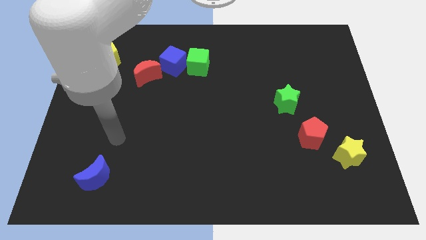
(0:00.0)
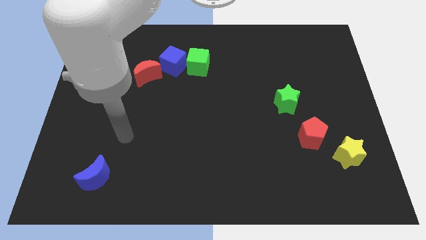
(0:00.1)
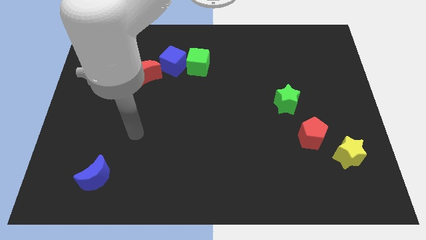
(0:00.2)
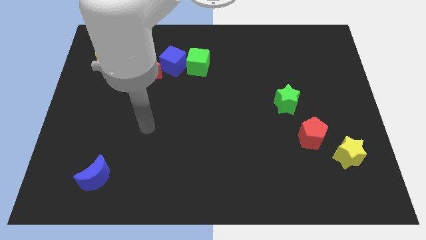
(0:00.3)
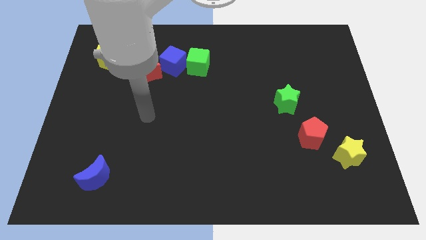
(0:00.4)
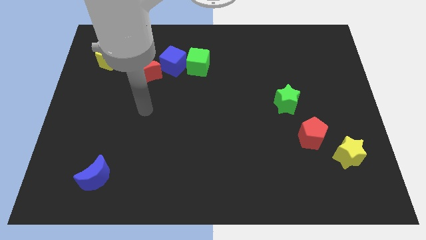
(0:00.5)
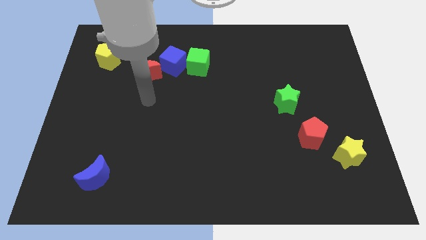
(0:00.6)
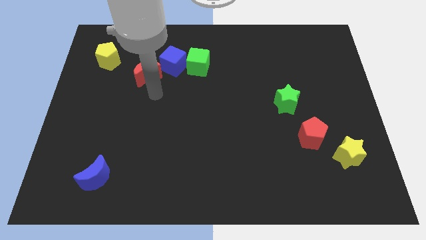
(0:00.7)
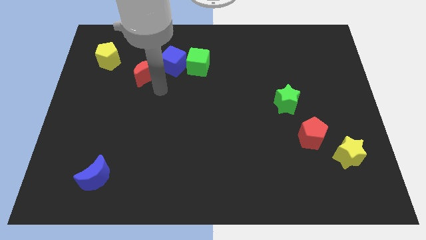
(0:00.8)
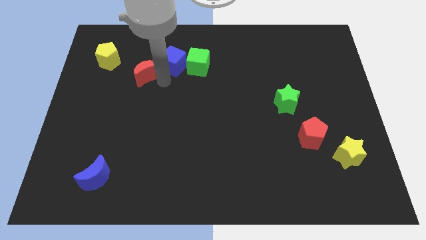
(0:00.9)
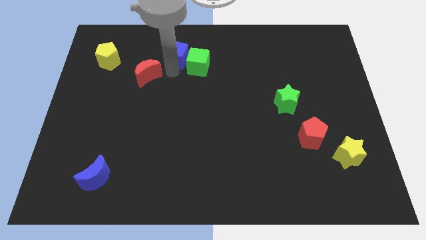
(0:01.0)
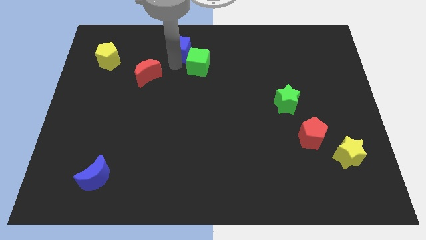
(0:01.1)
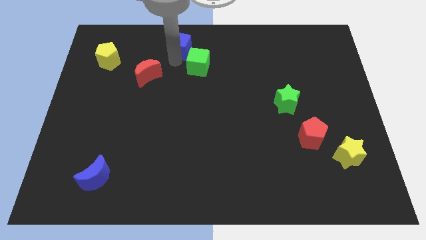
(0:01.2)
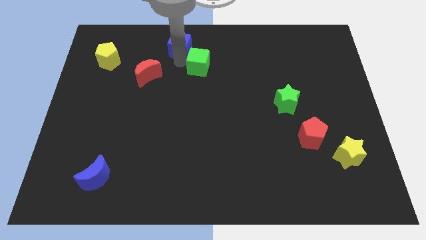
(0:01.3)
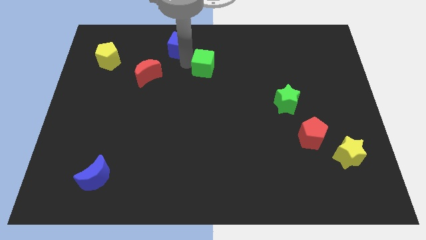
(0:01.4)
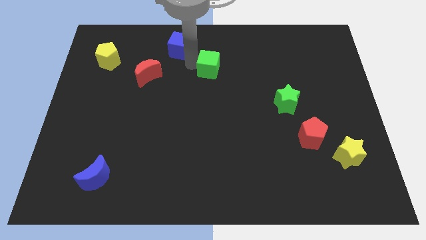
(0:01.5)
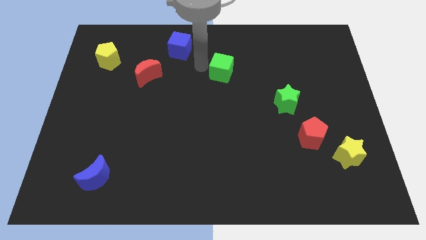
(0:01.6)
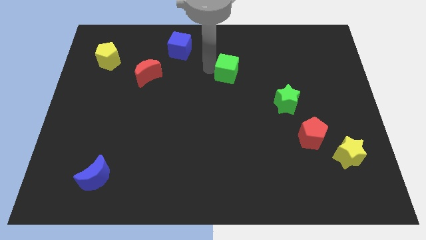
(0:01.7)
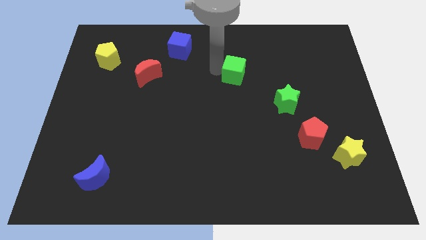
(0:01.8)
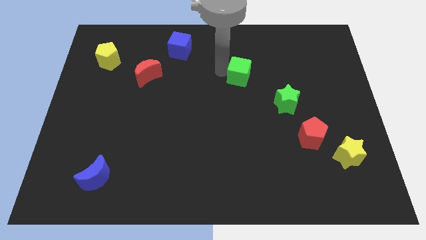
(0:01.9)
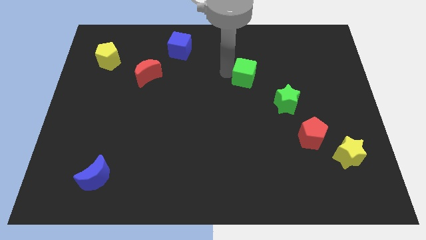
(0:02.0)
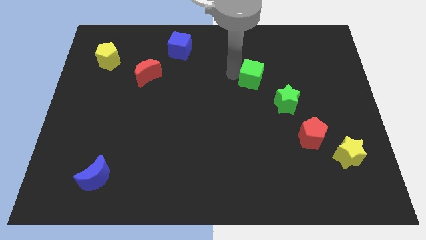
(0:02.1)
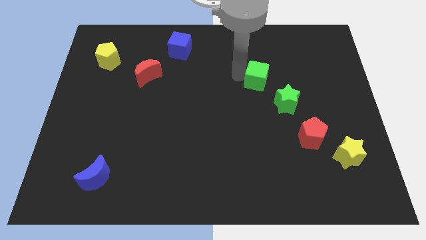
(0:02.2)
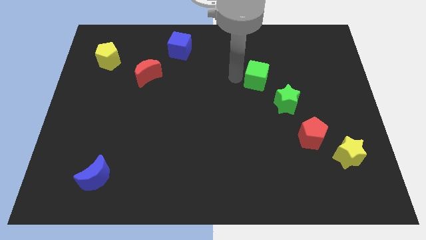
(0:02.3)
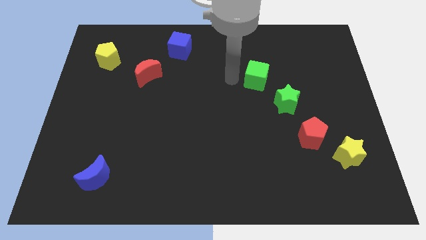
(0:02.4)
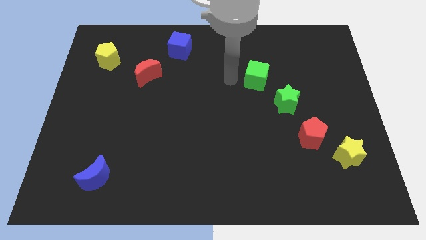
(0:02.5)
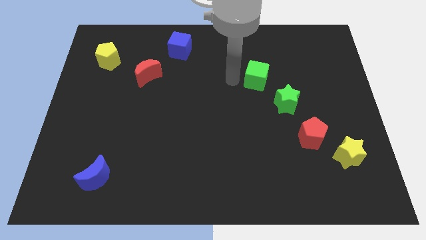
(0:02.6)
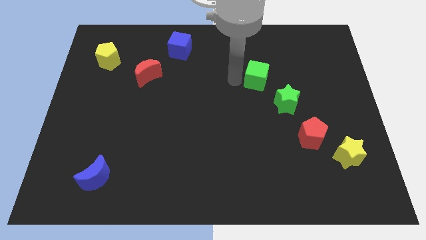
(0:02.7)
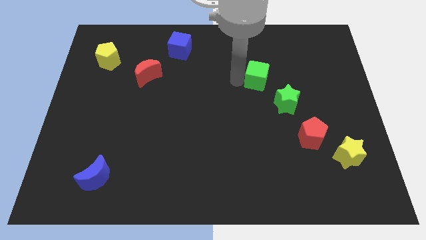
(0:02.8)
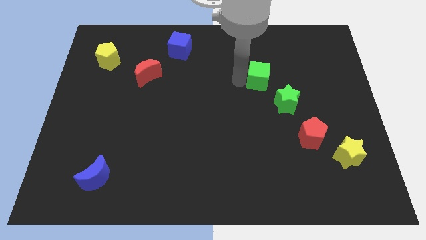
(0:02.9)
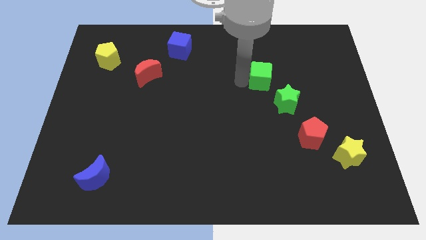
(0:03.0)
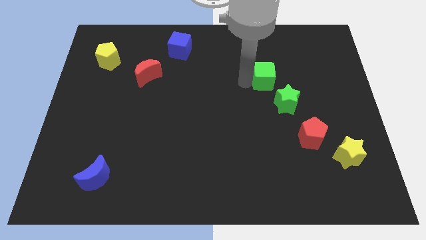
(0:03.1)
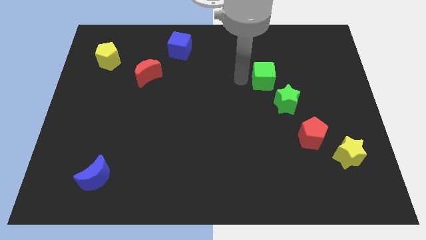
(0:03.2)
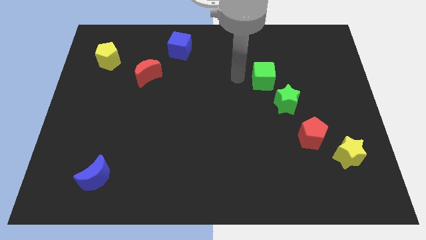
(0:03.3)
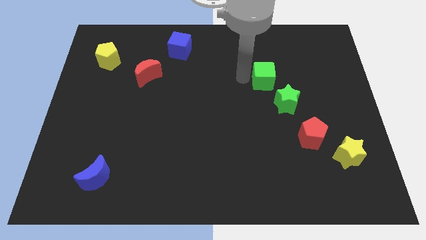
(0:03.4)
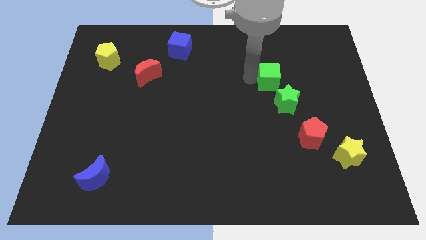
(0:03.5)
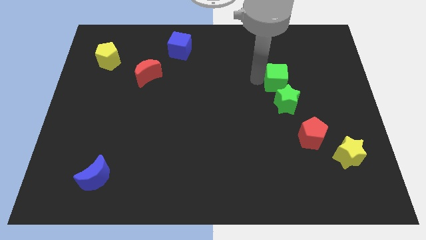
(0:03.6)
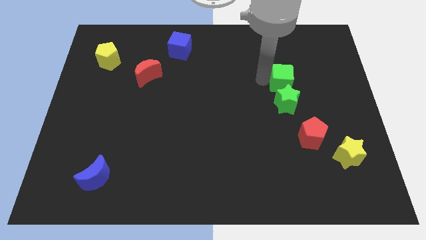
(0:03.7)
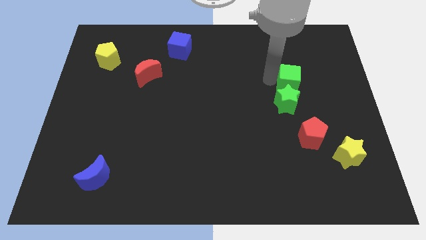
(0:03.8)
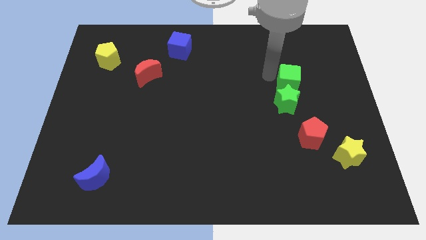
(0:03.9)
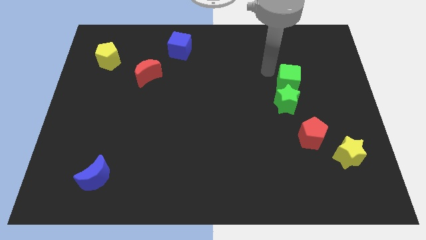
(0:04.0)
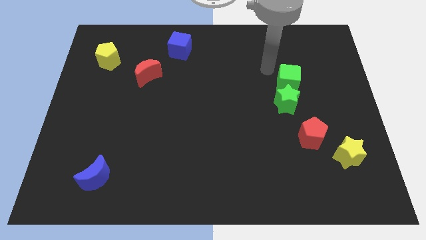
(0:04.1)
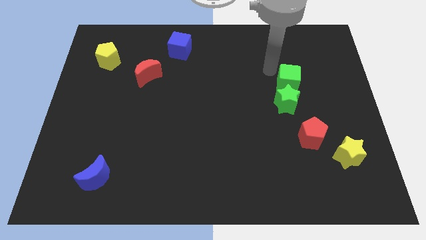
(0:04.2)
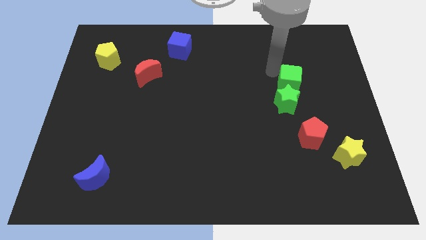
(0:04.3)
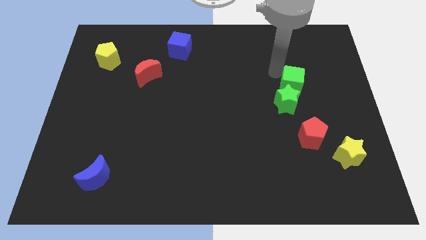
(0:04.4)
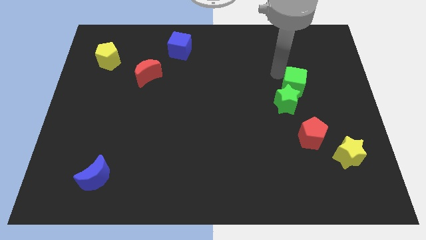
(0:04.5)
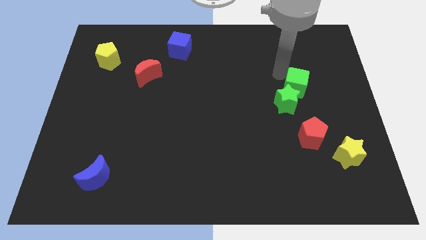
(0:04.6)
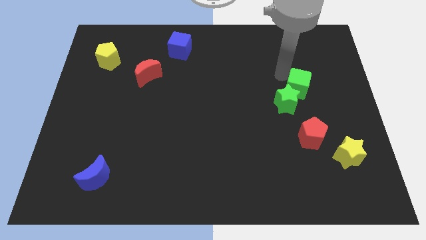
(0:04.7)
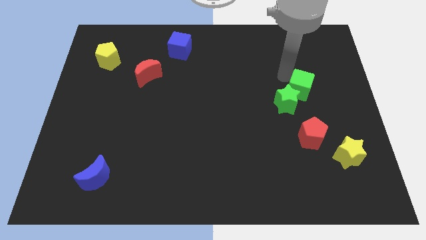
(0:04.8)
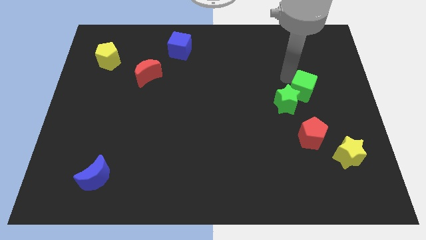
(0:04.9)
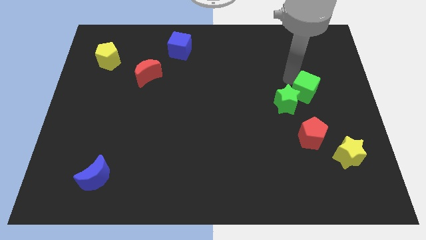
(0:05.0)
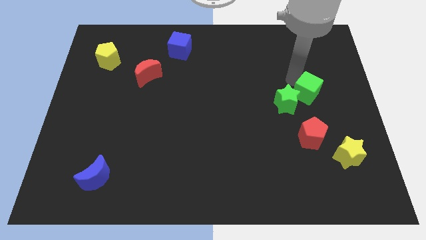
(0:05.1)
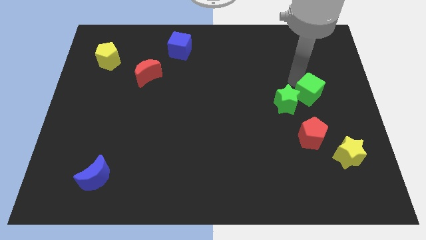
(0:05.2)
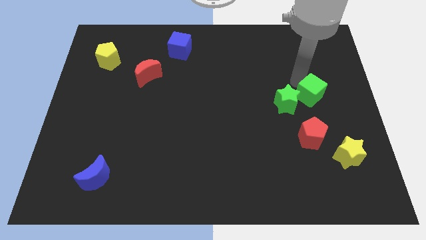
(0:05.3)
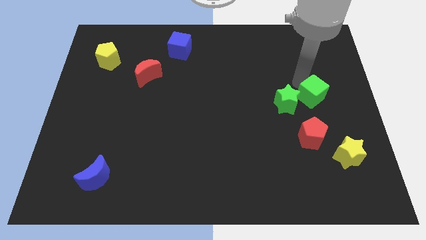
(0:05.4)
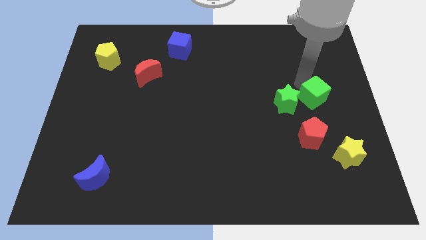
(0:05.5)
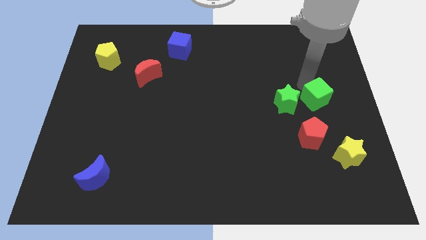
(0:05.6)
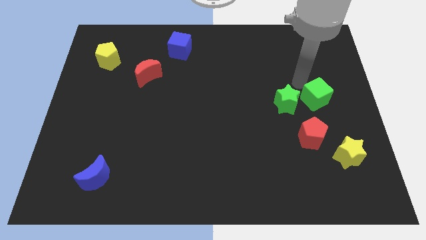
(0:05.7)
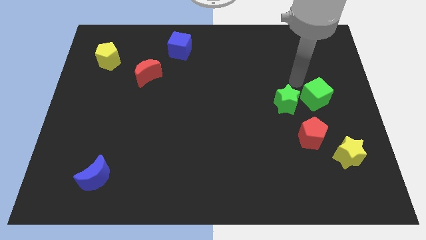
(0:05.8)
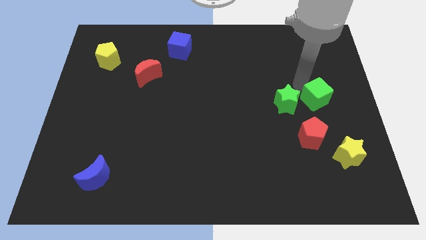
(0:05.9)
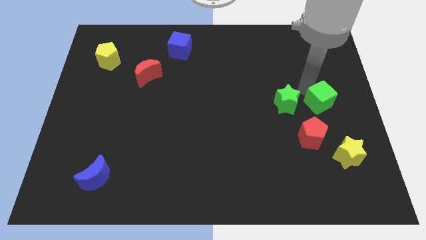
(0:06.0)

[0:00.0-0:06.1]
push the green cube to the top of the yellow star

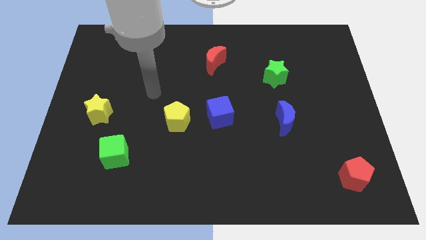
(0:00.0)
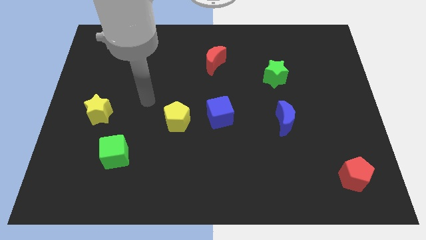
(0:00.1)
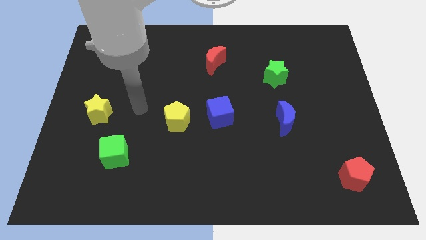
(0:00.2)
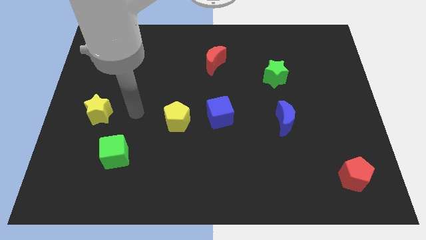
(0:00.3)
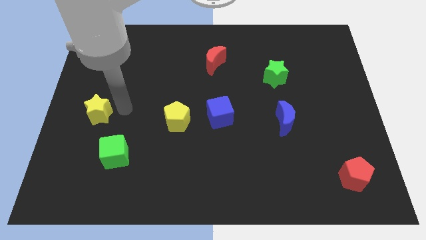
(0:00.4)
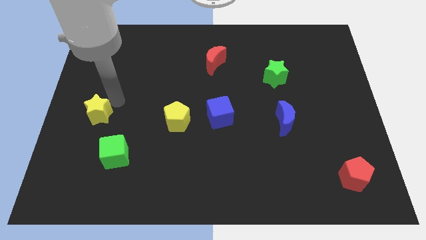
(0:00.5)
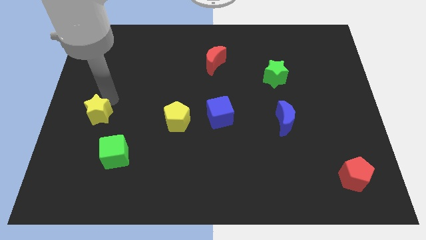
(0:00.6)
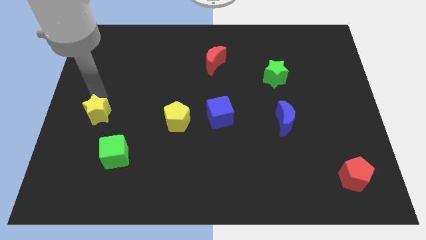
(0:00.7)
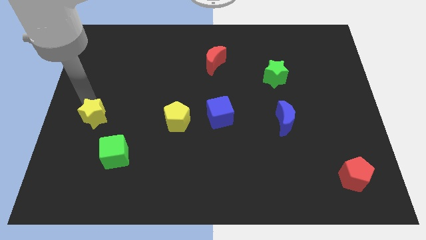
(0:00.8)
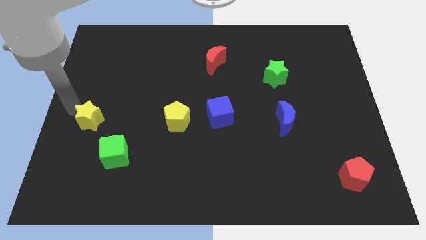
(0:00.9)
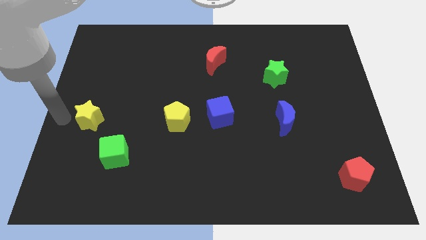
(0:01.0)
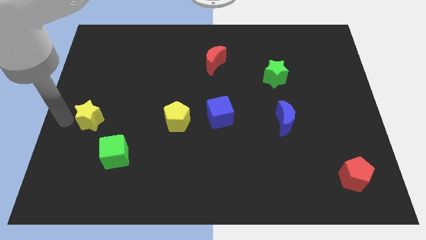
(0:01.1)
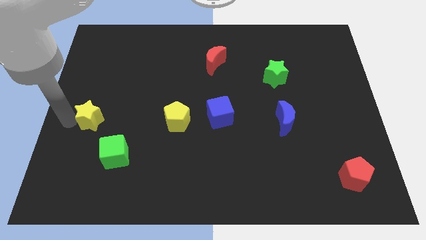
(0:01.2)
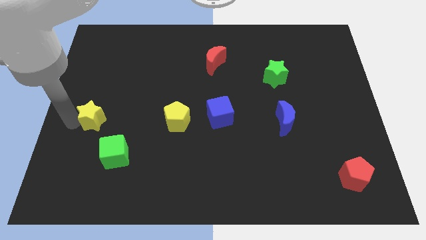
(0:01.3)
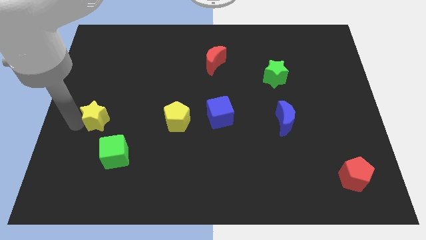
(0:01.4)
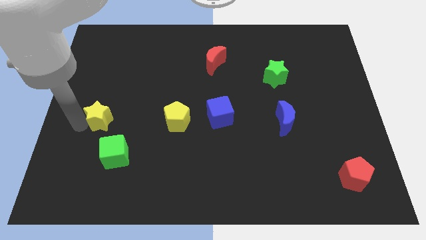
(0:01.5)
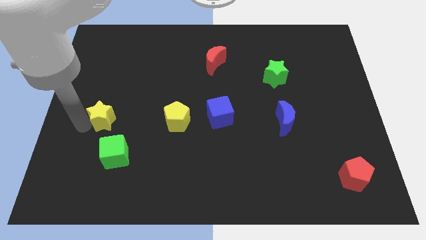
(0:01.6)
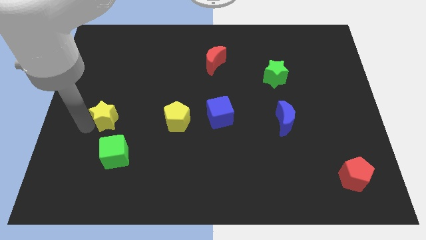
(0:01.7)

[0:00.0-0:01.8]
put the yellow star just left of the yellow pentagon
